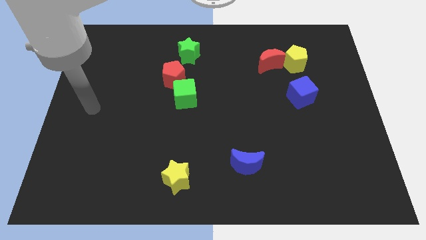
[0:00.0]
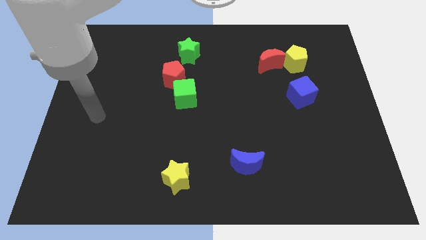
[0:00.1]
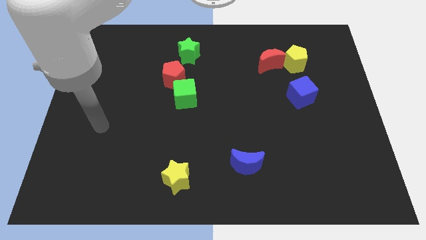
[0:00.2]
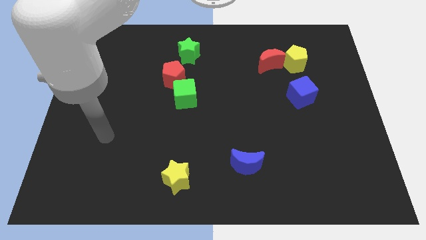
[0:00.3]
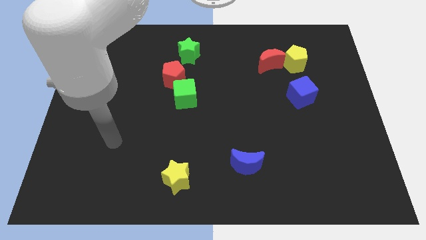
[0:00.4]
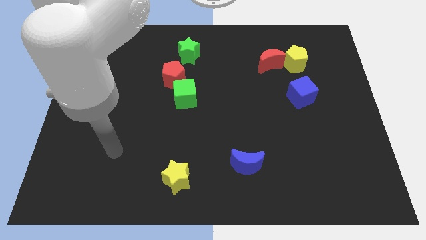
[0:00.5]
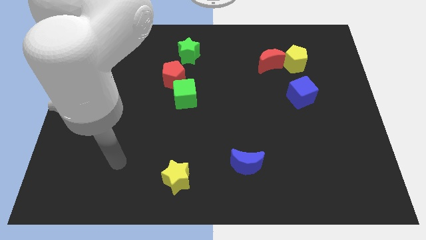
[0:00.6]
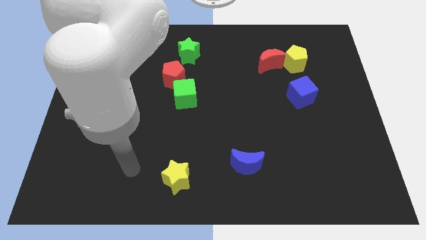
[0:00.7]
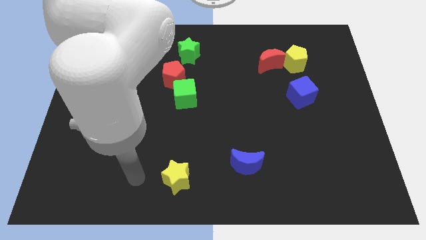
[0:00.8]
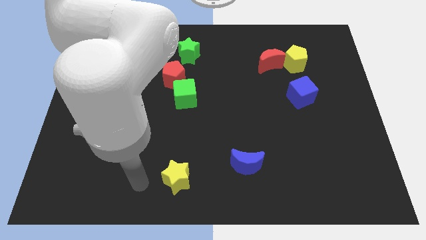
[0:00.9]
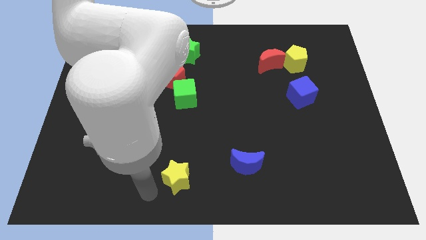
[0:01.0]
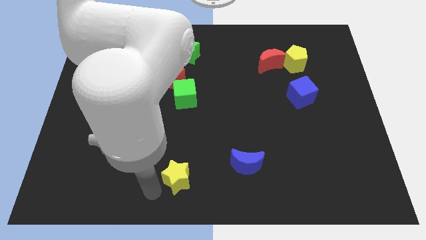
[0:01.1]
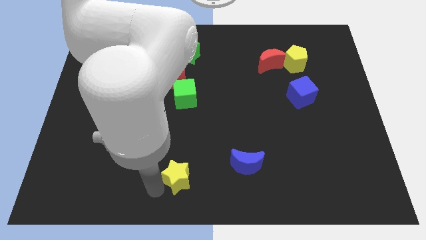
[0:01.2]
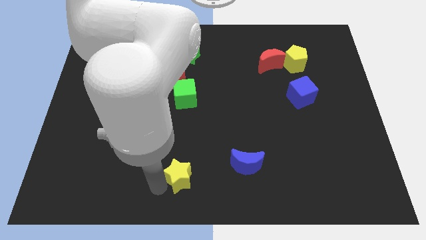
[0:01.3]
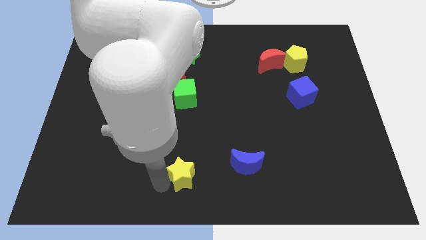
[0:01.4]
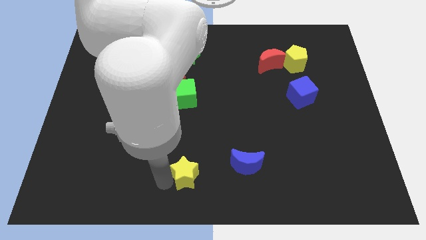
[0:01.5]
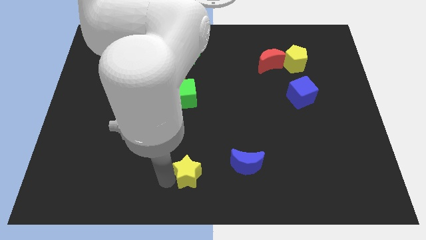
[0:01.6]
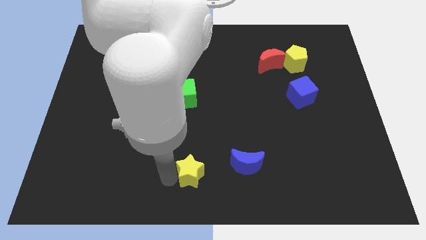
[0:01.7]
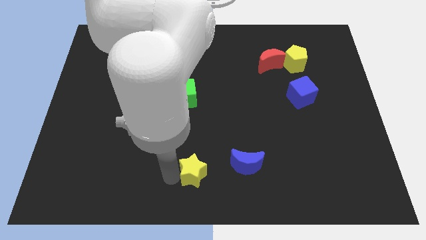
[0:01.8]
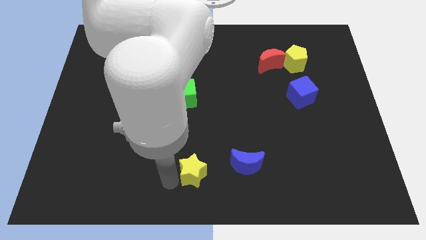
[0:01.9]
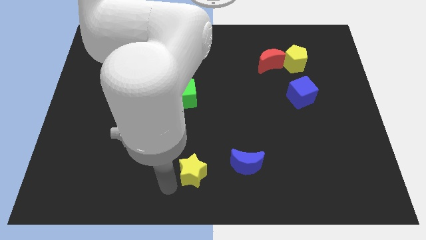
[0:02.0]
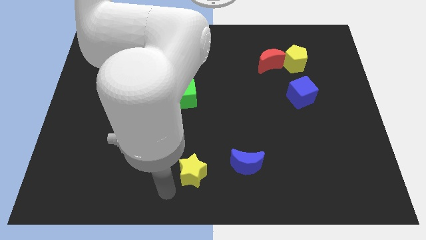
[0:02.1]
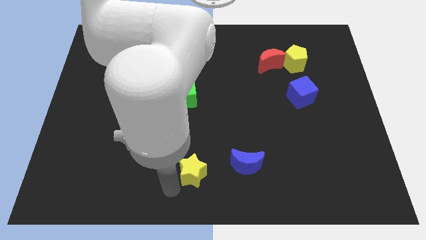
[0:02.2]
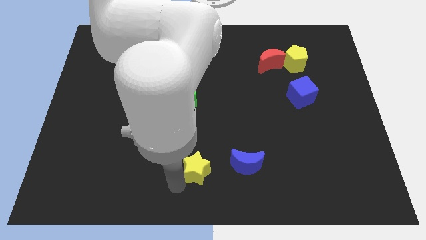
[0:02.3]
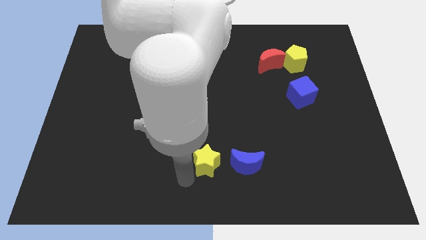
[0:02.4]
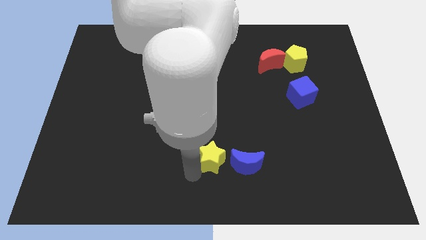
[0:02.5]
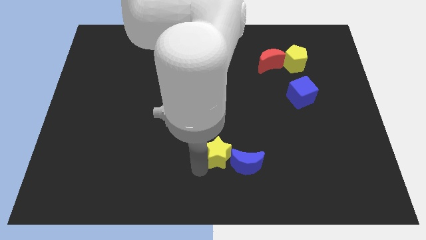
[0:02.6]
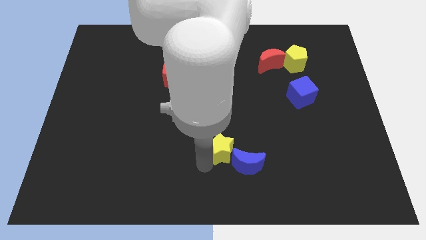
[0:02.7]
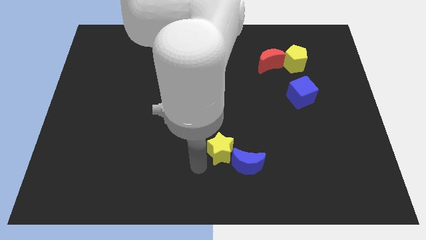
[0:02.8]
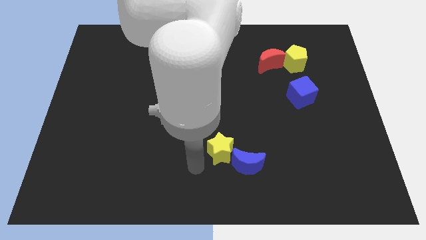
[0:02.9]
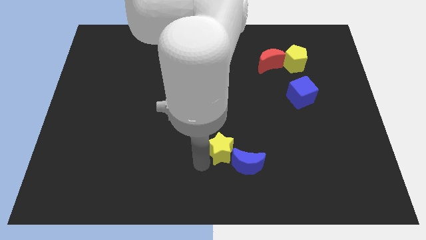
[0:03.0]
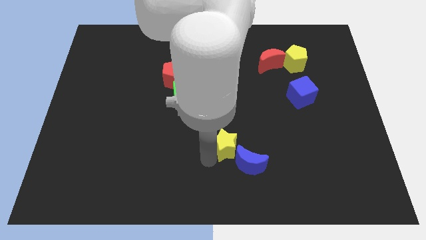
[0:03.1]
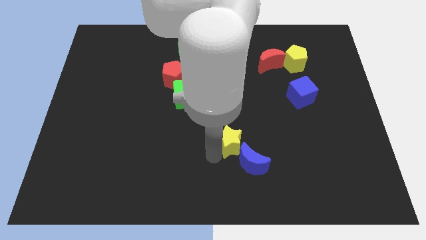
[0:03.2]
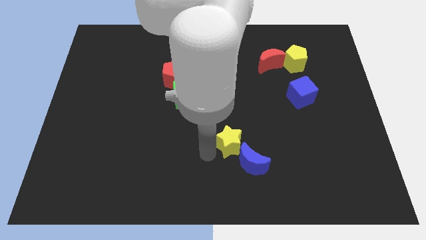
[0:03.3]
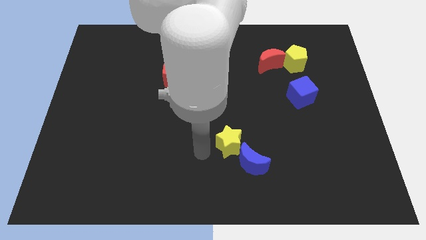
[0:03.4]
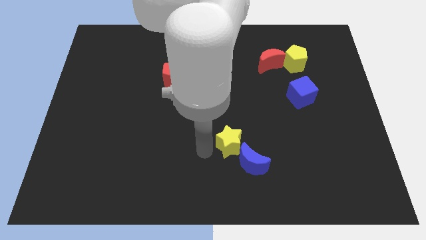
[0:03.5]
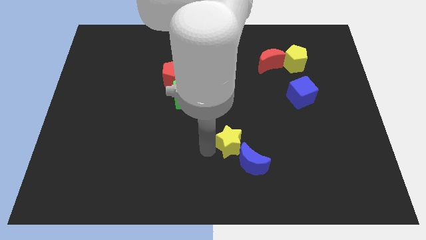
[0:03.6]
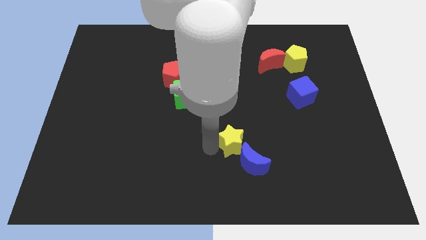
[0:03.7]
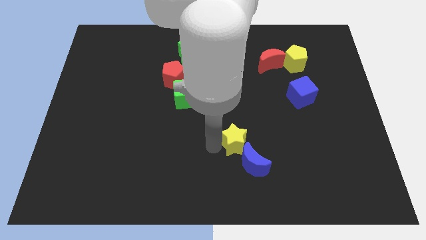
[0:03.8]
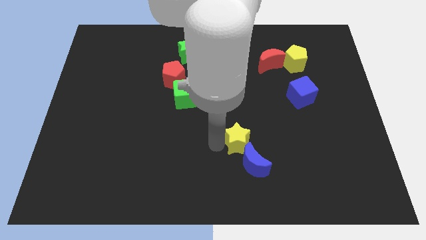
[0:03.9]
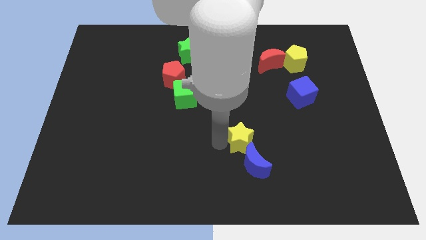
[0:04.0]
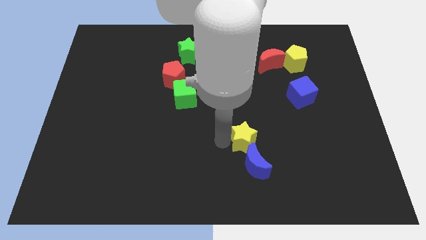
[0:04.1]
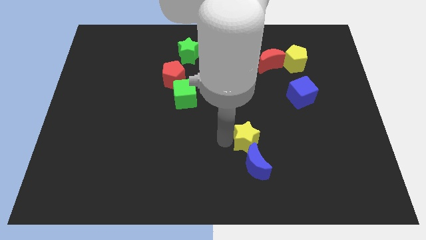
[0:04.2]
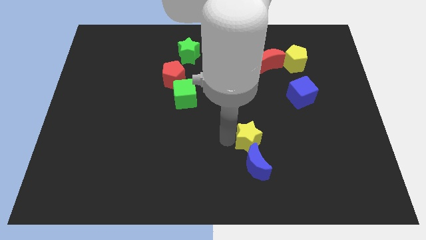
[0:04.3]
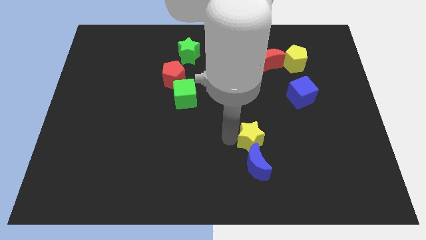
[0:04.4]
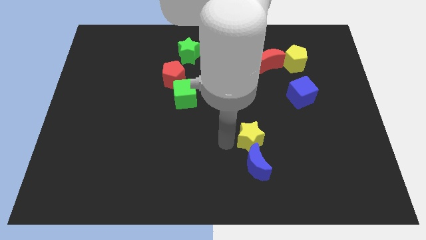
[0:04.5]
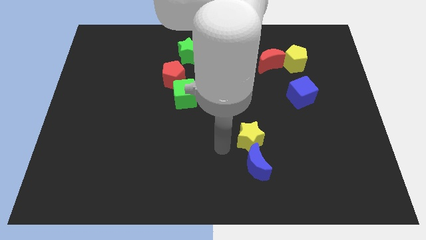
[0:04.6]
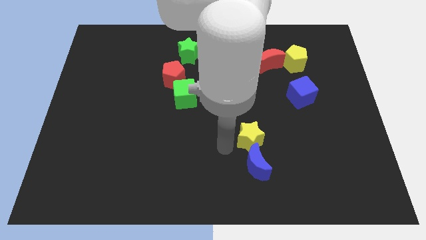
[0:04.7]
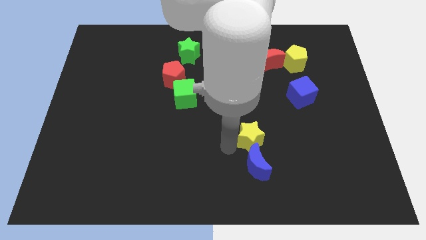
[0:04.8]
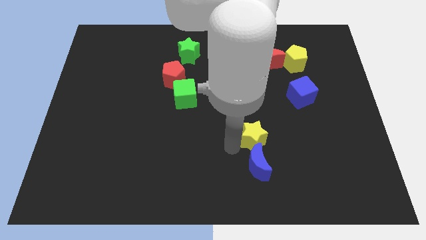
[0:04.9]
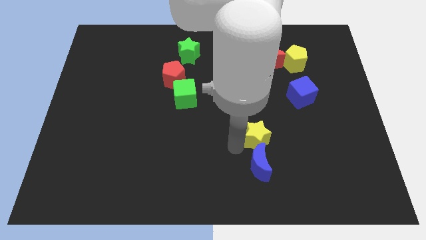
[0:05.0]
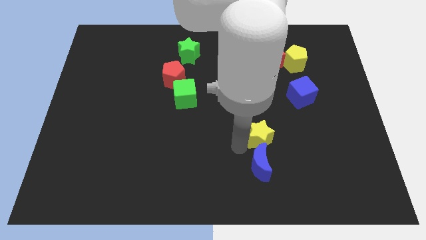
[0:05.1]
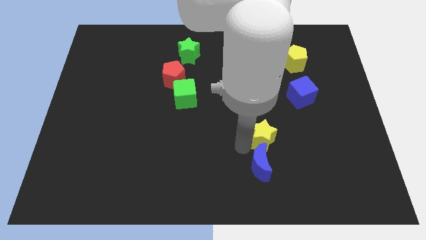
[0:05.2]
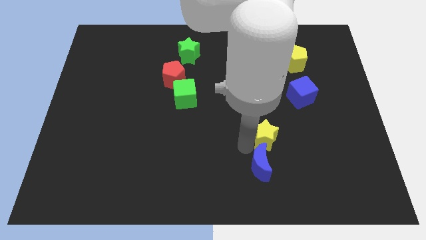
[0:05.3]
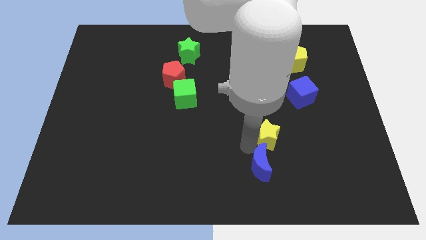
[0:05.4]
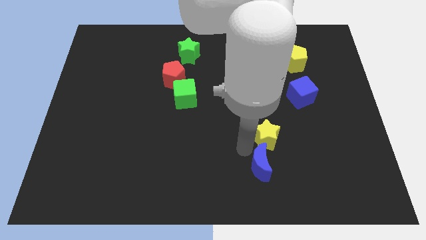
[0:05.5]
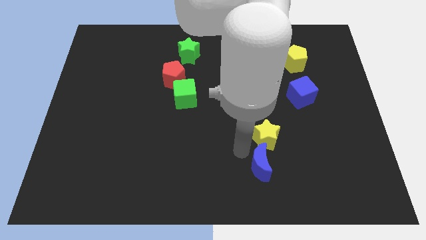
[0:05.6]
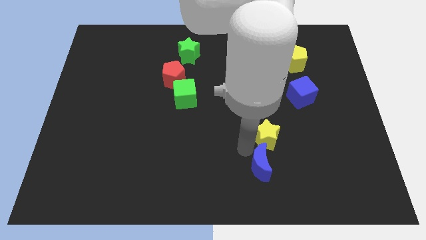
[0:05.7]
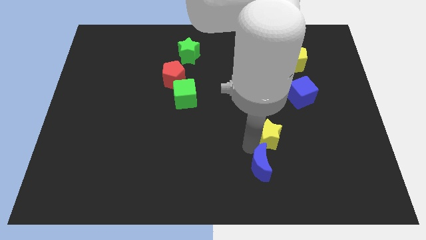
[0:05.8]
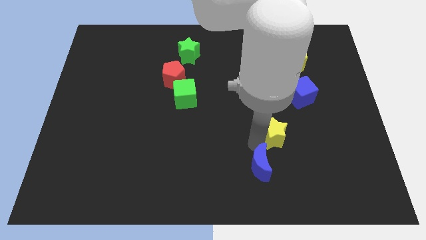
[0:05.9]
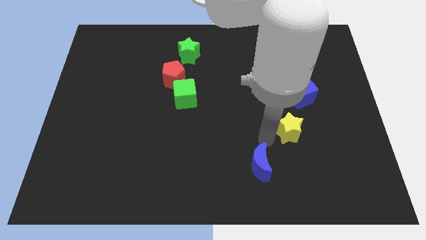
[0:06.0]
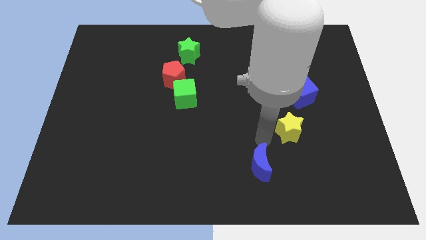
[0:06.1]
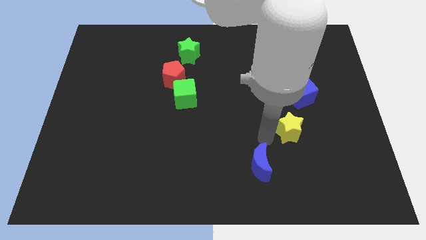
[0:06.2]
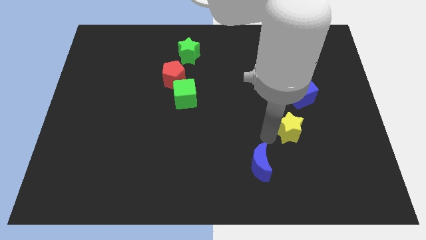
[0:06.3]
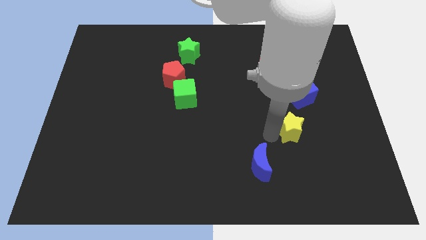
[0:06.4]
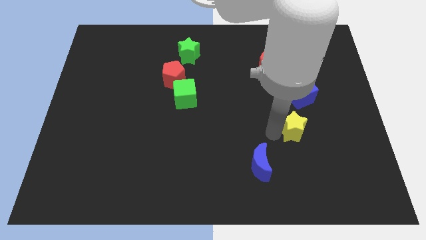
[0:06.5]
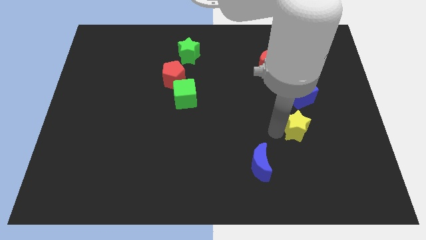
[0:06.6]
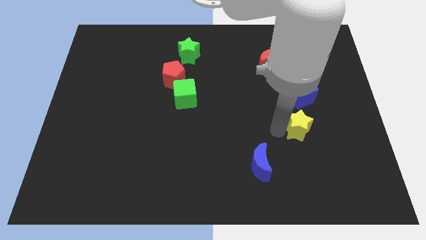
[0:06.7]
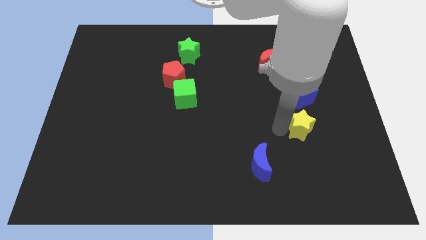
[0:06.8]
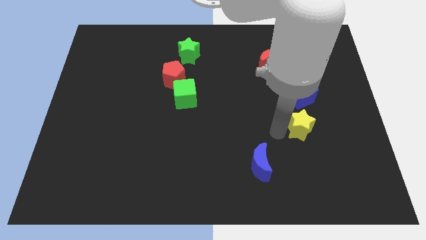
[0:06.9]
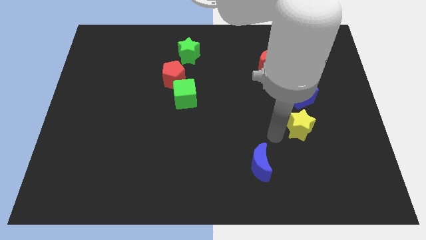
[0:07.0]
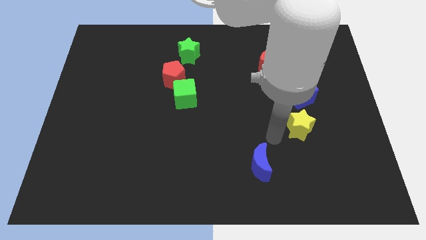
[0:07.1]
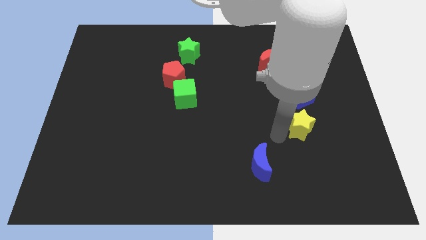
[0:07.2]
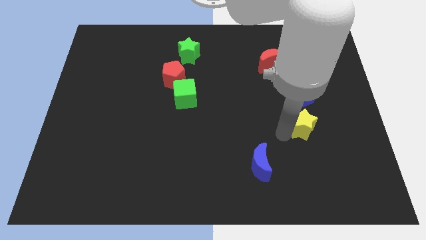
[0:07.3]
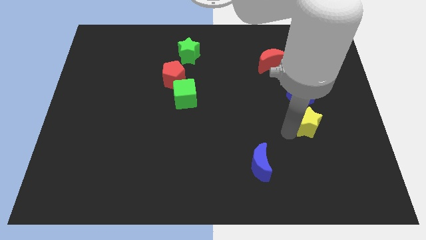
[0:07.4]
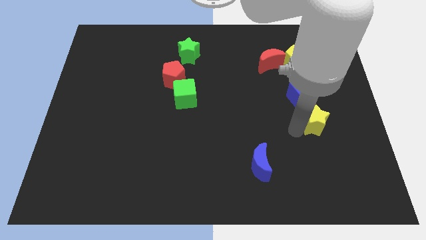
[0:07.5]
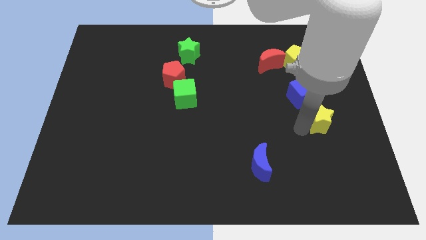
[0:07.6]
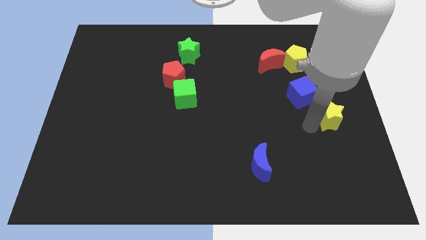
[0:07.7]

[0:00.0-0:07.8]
slide the yellow star to the right side of the board

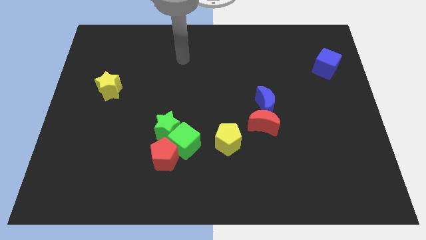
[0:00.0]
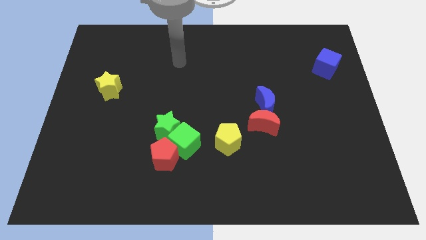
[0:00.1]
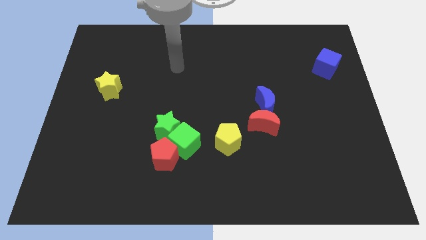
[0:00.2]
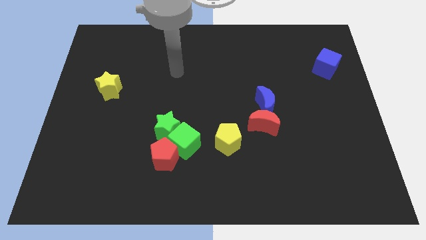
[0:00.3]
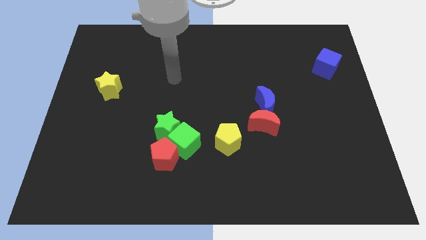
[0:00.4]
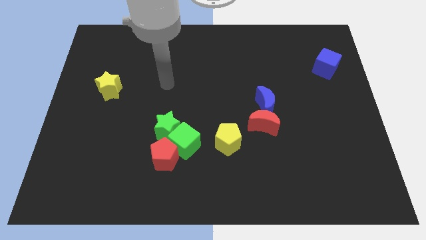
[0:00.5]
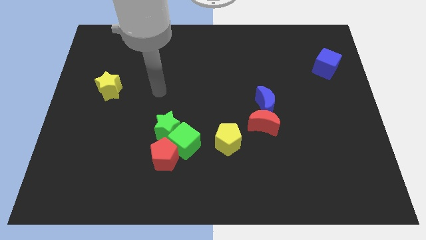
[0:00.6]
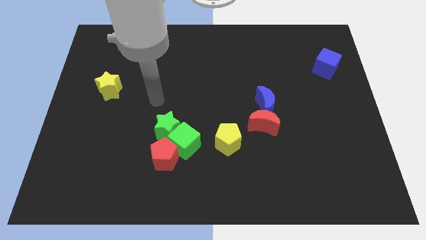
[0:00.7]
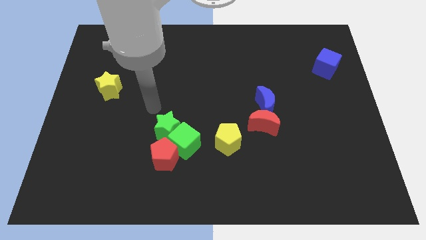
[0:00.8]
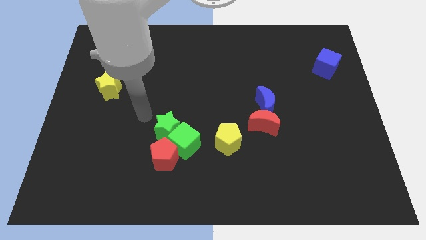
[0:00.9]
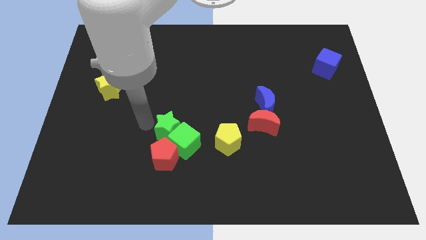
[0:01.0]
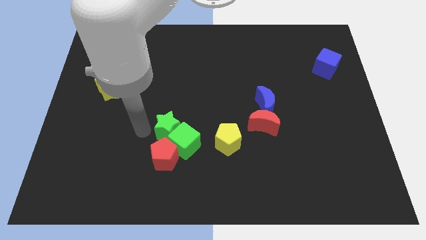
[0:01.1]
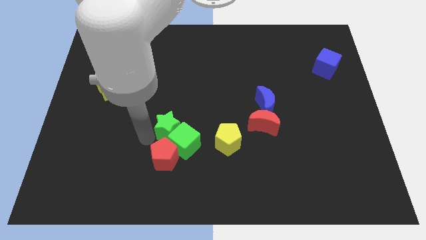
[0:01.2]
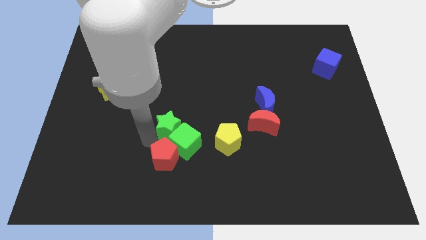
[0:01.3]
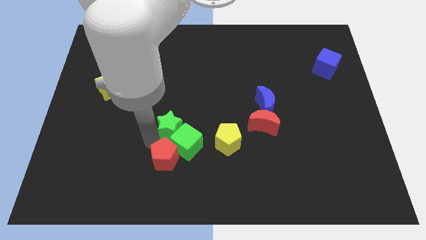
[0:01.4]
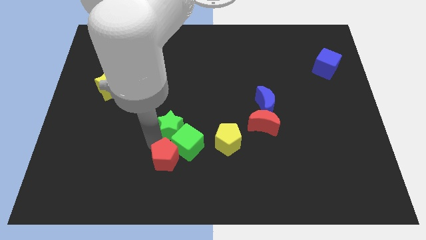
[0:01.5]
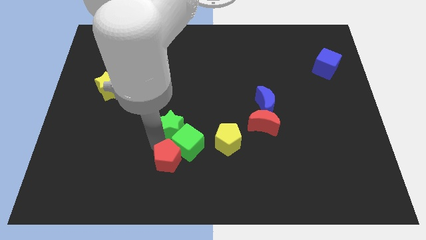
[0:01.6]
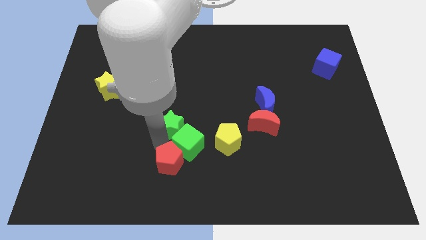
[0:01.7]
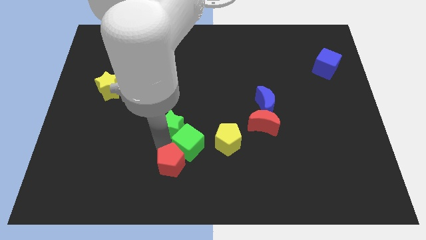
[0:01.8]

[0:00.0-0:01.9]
move the red pentagon to the bottom side
